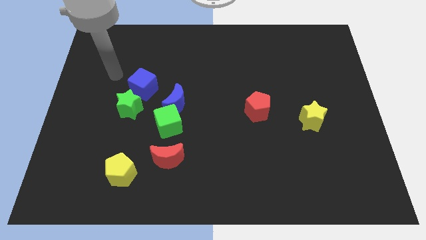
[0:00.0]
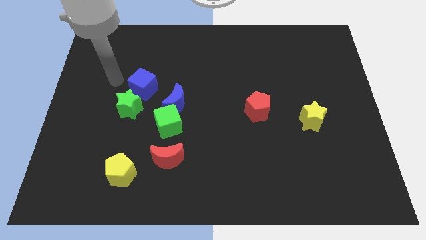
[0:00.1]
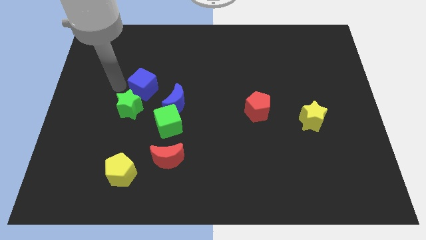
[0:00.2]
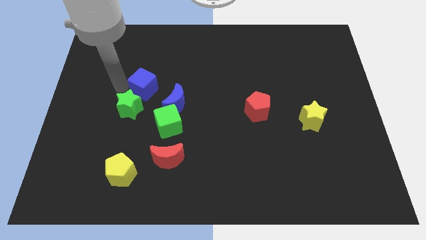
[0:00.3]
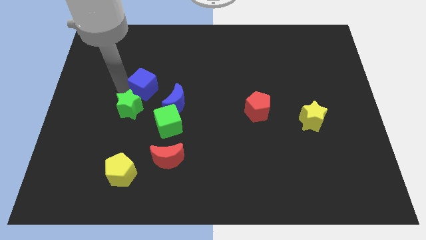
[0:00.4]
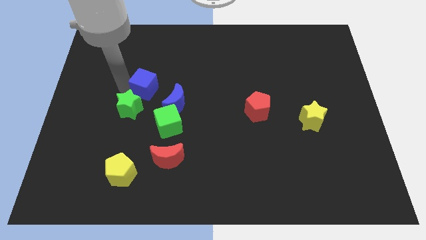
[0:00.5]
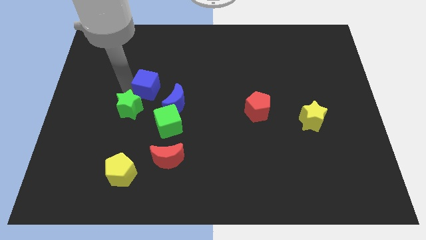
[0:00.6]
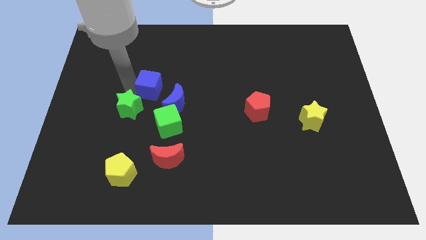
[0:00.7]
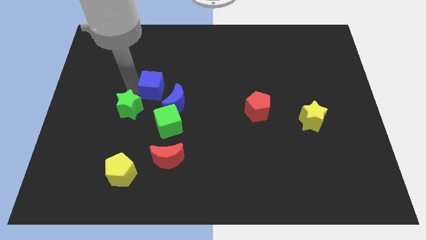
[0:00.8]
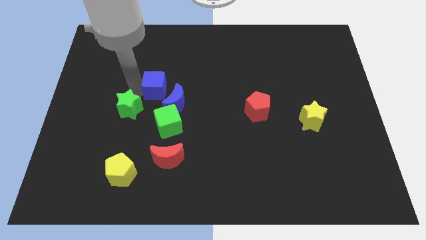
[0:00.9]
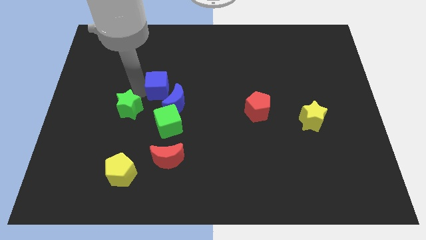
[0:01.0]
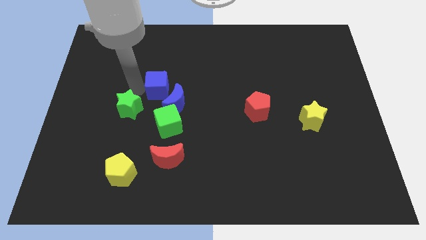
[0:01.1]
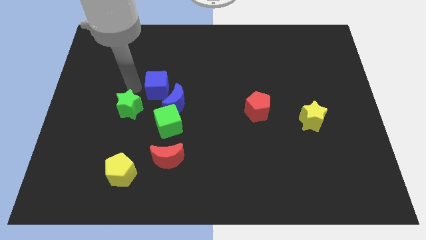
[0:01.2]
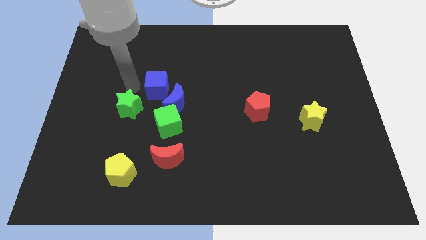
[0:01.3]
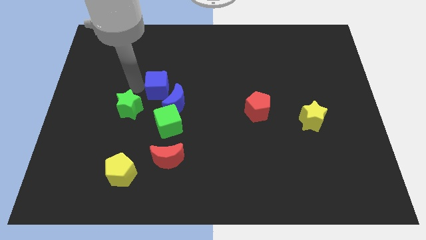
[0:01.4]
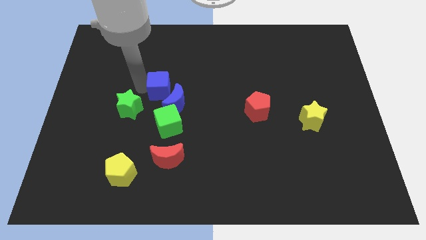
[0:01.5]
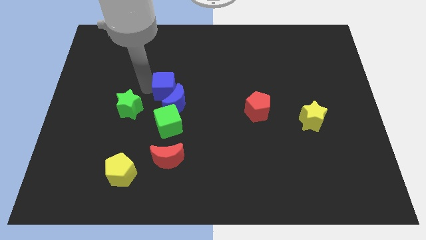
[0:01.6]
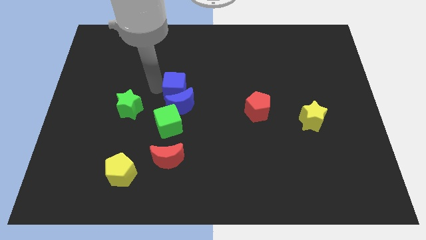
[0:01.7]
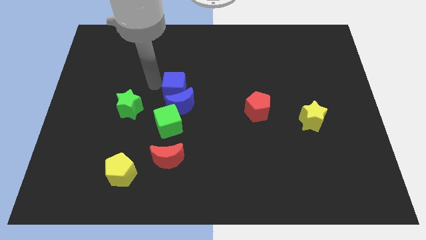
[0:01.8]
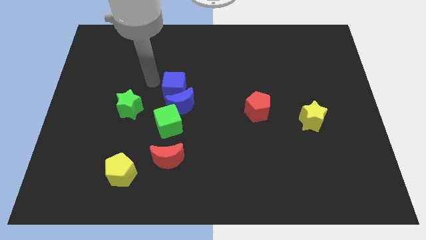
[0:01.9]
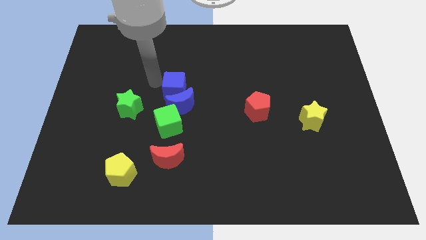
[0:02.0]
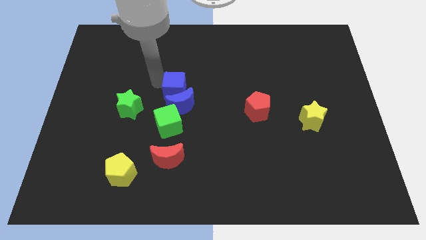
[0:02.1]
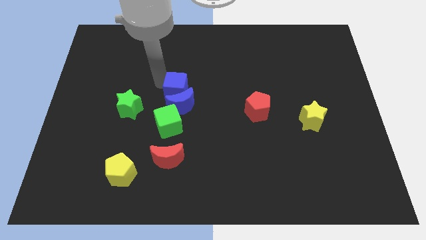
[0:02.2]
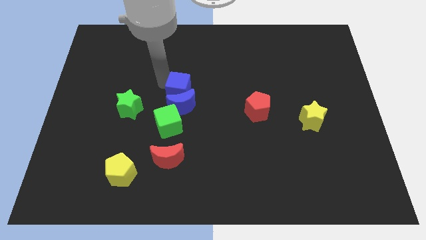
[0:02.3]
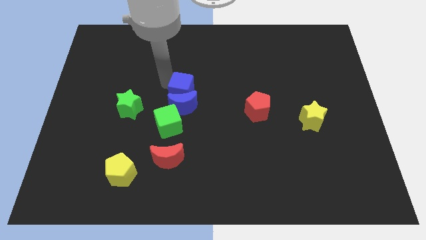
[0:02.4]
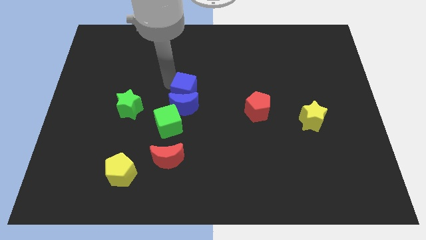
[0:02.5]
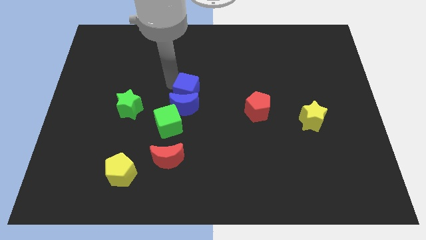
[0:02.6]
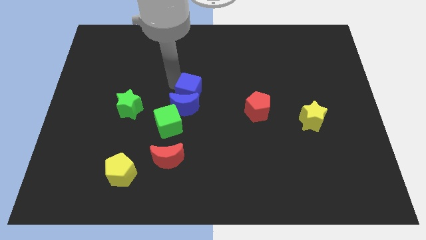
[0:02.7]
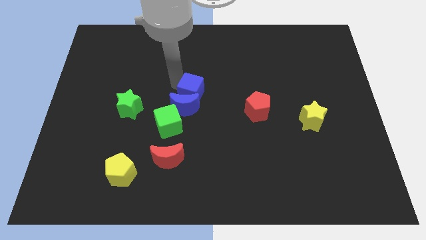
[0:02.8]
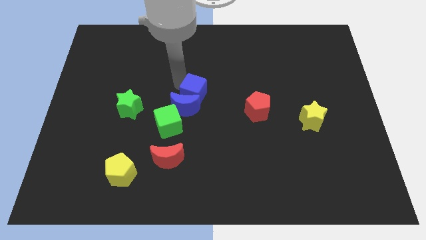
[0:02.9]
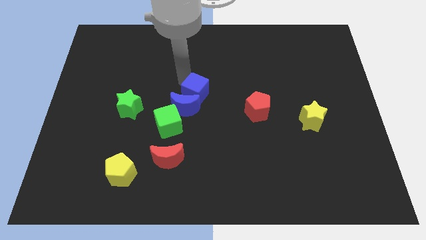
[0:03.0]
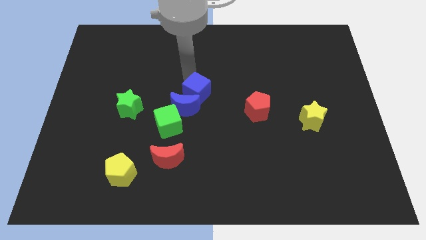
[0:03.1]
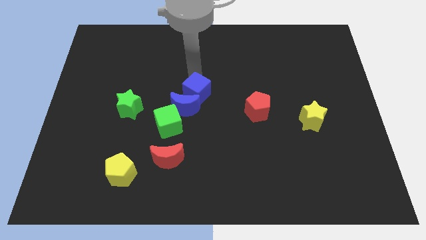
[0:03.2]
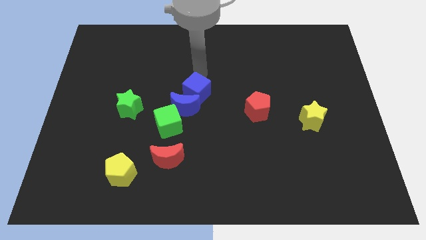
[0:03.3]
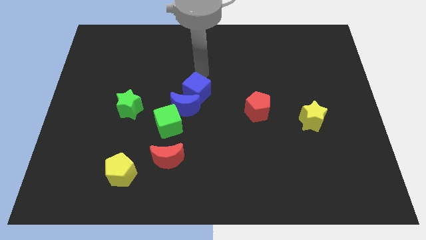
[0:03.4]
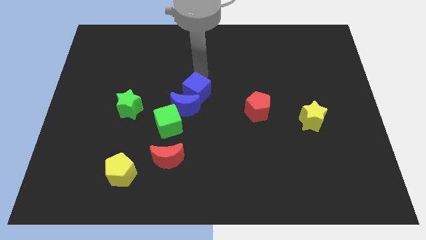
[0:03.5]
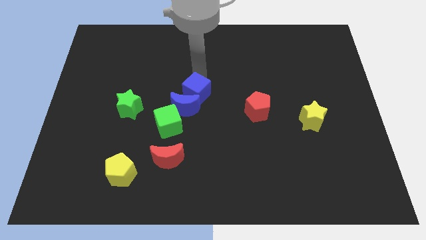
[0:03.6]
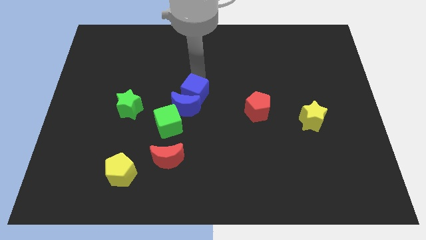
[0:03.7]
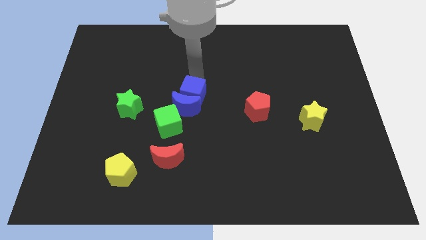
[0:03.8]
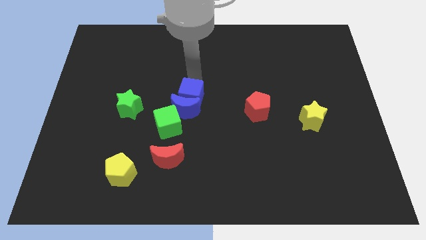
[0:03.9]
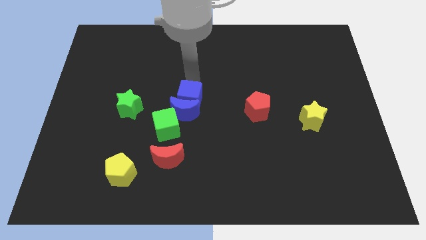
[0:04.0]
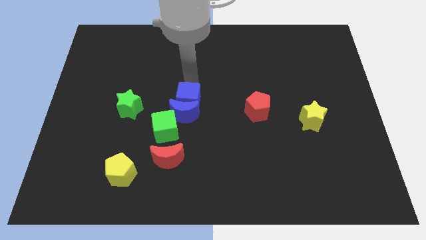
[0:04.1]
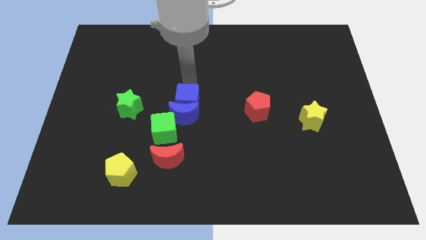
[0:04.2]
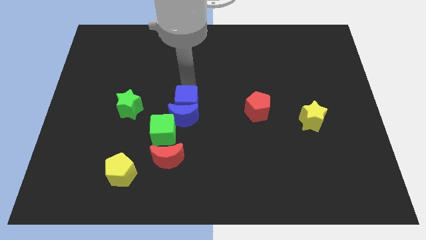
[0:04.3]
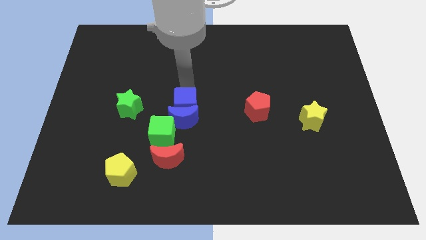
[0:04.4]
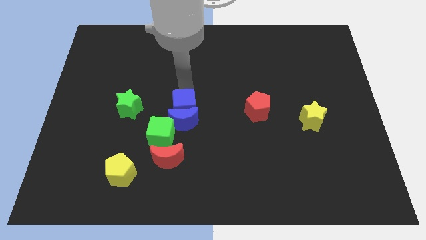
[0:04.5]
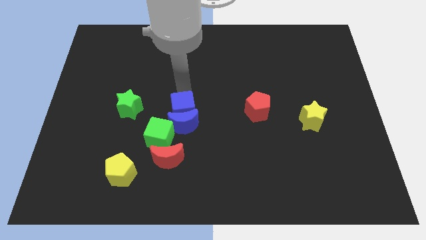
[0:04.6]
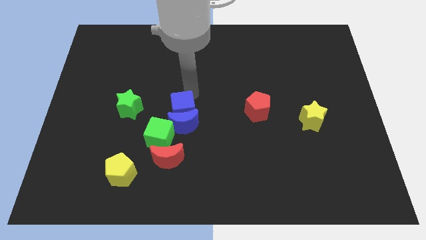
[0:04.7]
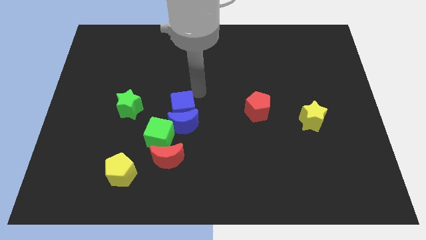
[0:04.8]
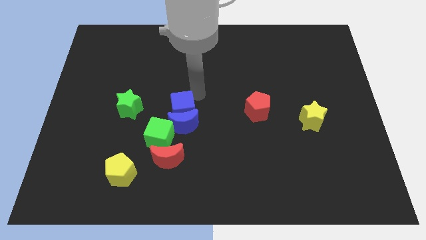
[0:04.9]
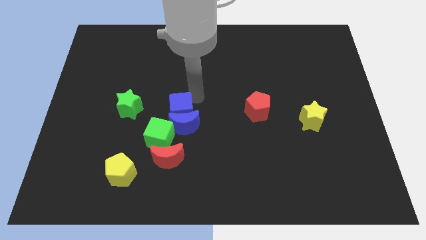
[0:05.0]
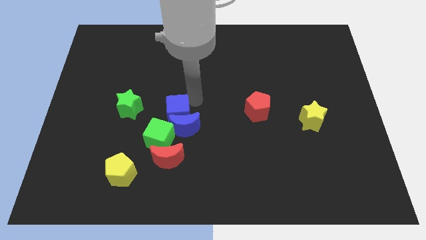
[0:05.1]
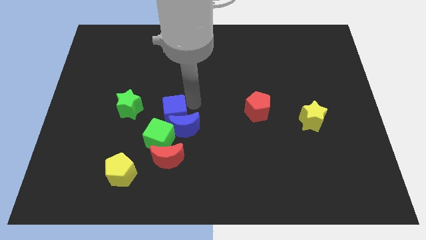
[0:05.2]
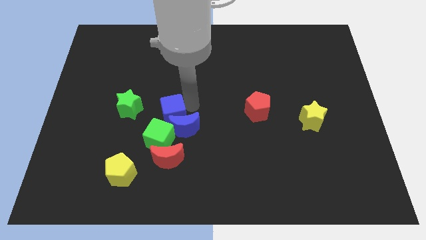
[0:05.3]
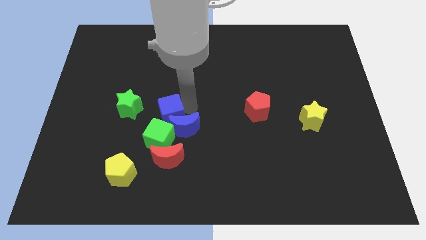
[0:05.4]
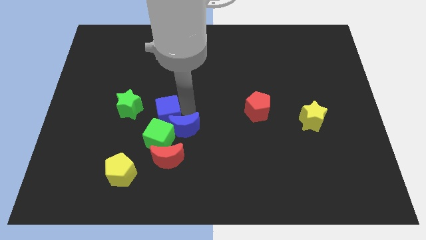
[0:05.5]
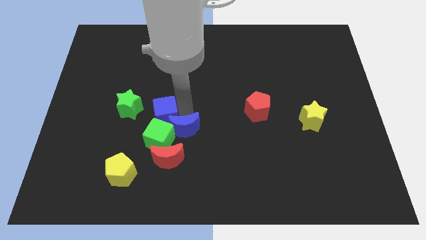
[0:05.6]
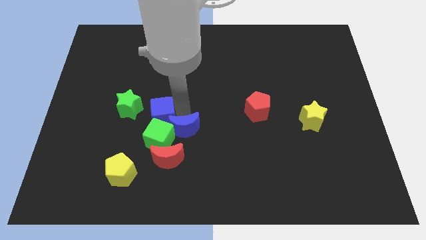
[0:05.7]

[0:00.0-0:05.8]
slide the blue cube towards the green cube

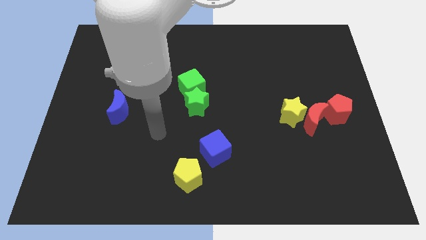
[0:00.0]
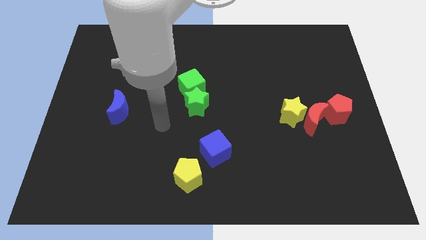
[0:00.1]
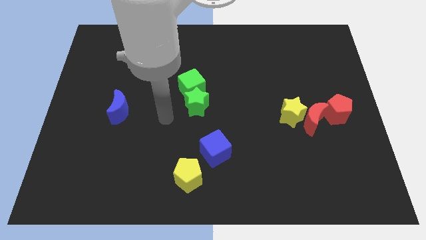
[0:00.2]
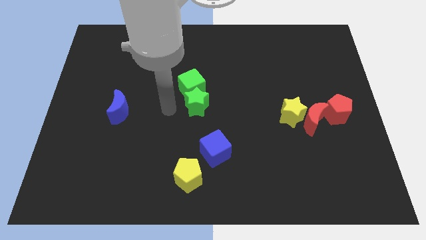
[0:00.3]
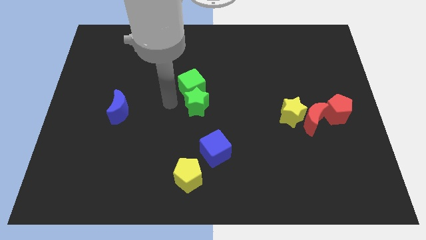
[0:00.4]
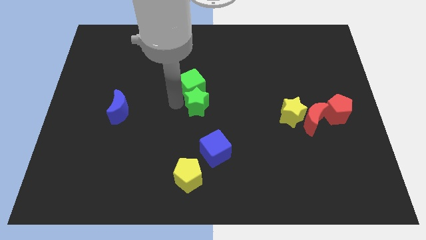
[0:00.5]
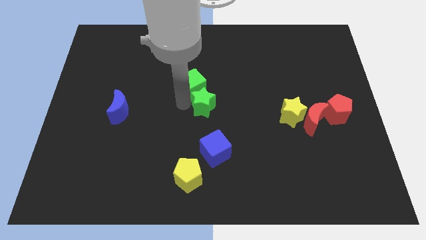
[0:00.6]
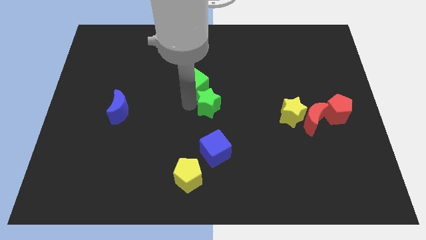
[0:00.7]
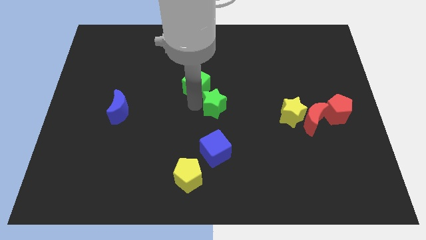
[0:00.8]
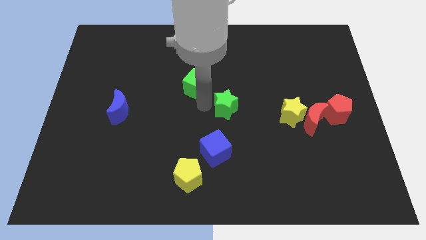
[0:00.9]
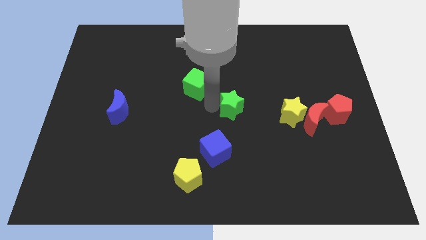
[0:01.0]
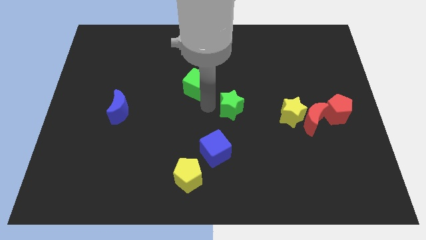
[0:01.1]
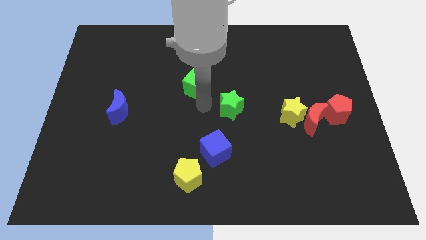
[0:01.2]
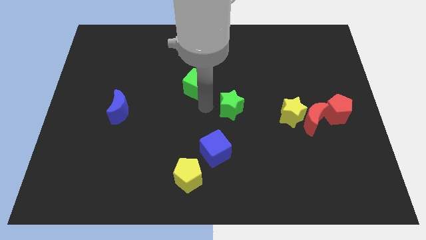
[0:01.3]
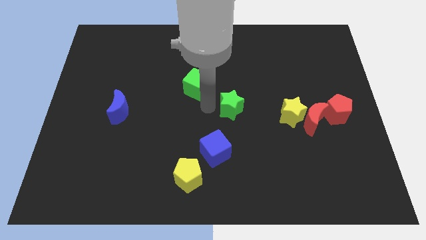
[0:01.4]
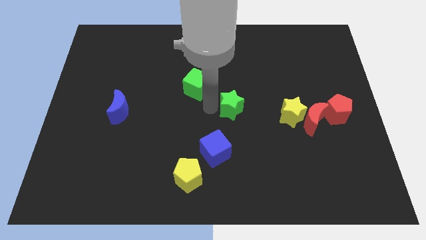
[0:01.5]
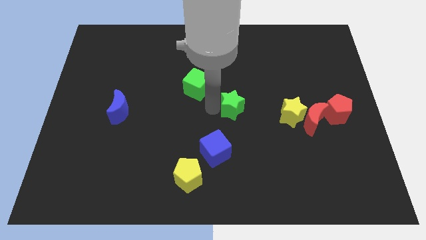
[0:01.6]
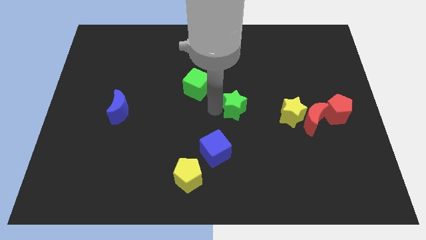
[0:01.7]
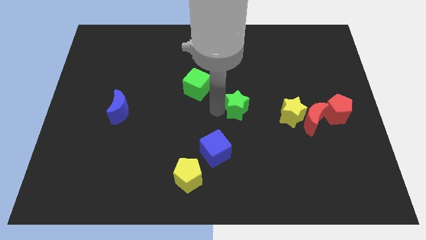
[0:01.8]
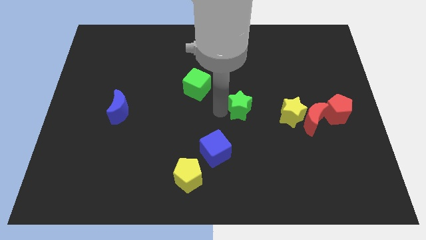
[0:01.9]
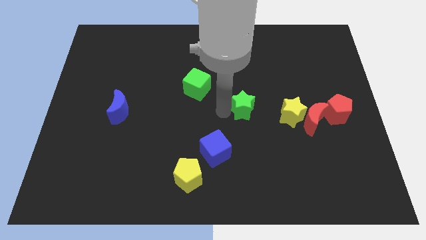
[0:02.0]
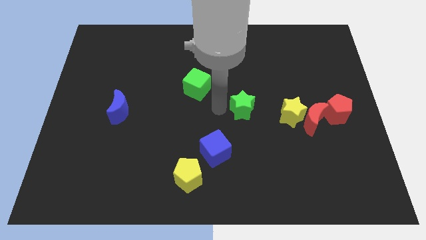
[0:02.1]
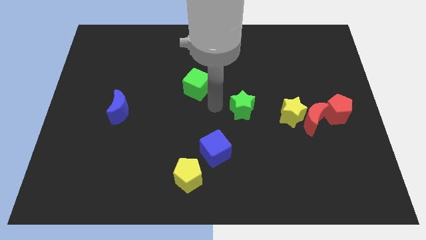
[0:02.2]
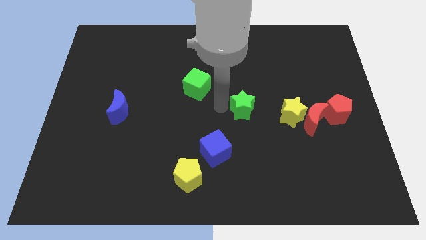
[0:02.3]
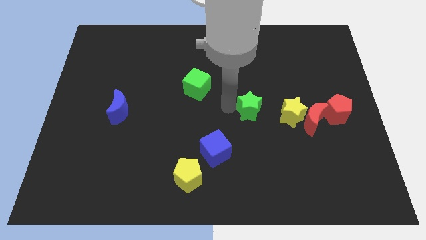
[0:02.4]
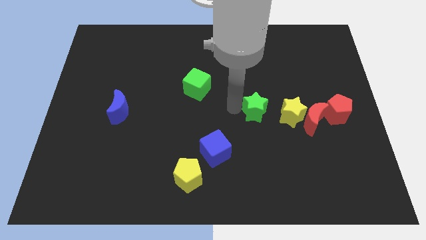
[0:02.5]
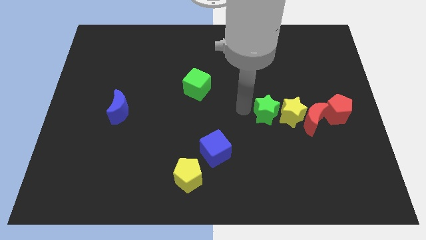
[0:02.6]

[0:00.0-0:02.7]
put the green star next to the yellow star
